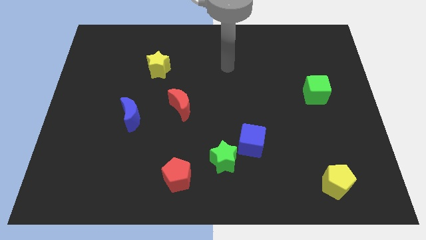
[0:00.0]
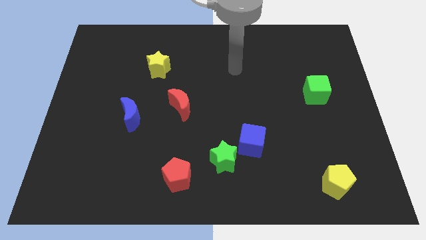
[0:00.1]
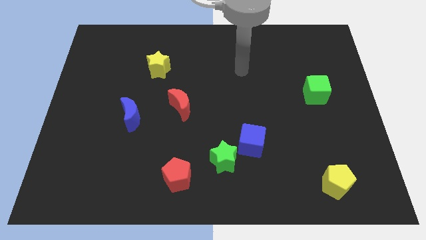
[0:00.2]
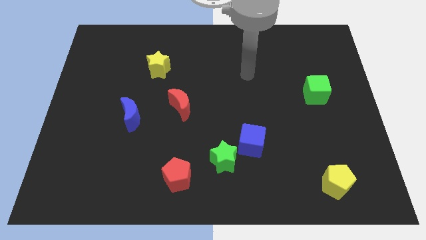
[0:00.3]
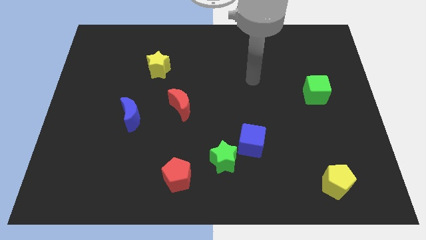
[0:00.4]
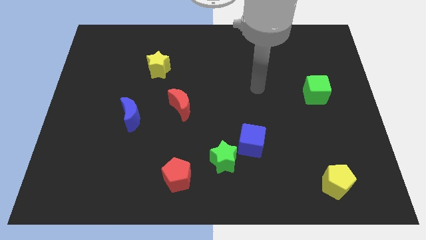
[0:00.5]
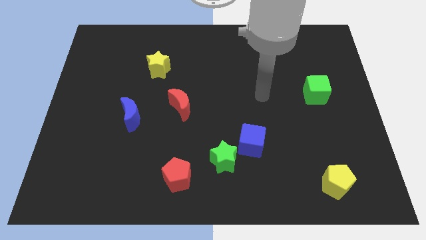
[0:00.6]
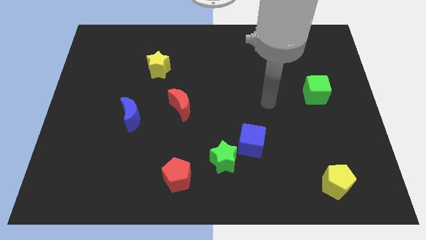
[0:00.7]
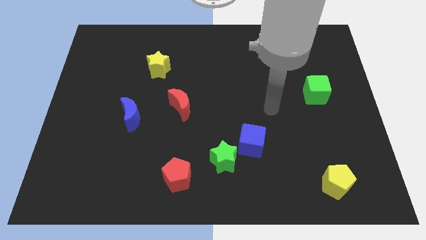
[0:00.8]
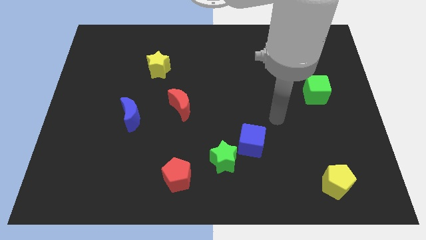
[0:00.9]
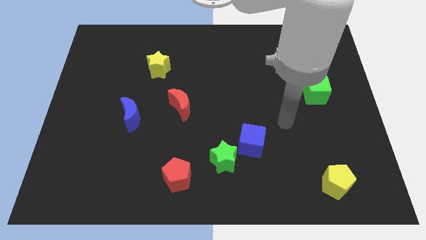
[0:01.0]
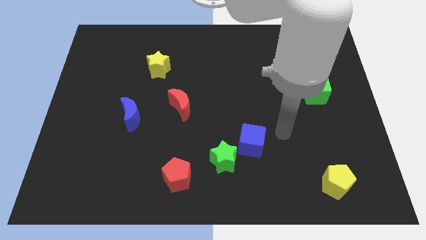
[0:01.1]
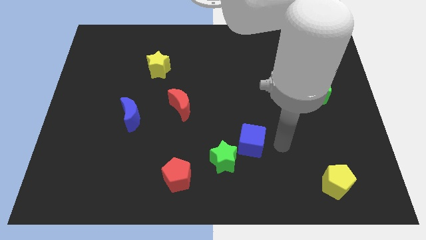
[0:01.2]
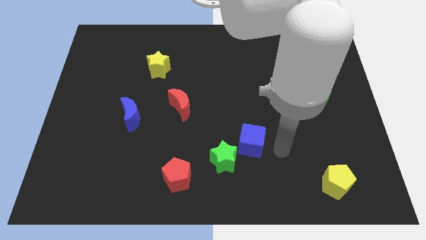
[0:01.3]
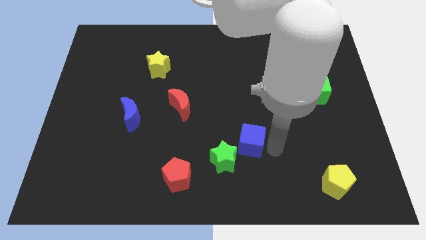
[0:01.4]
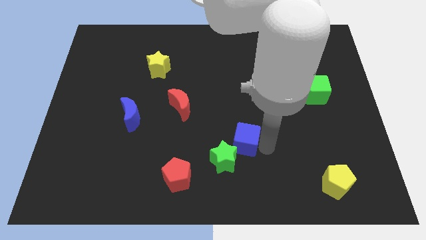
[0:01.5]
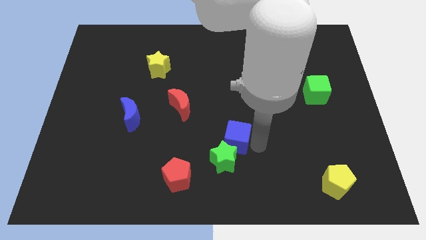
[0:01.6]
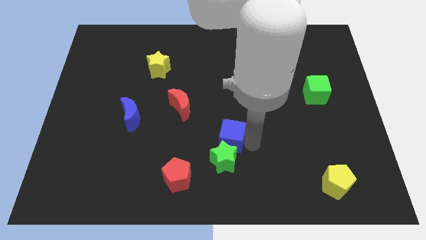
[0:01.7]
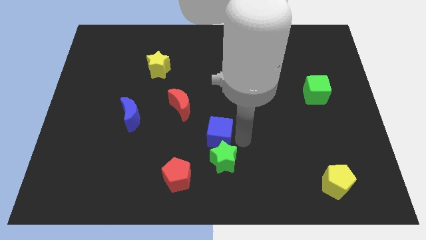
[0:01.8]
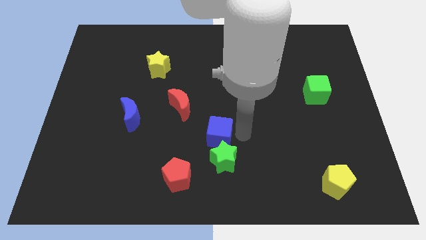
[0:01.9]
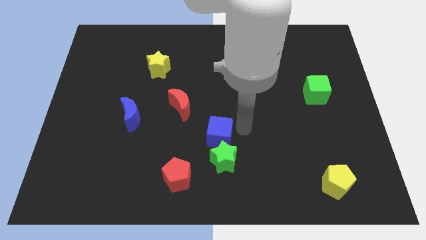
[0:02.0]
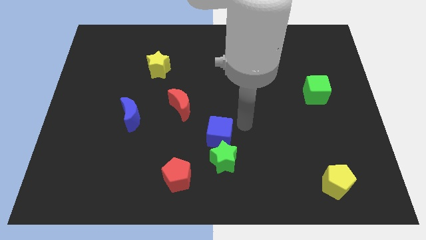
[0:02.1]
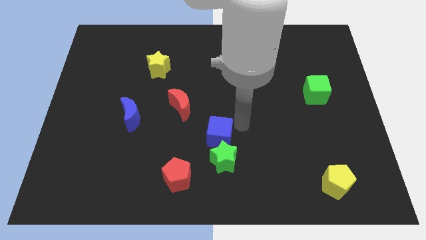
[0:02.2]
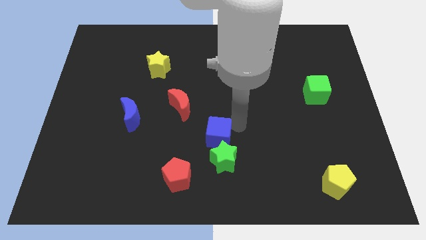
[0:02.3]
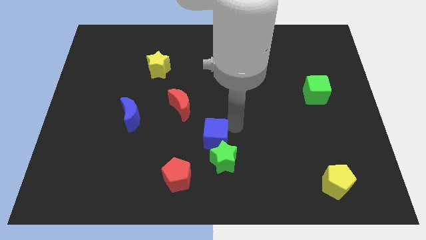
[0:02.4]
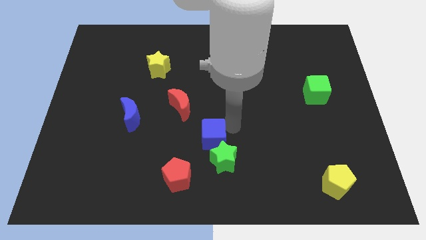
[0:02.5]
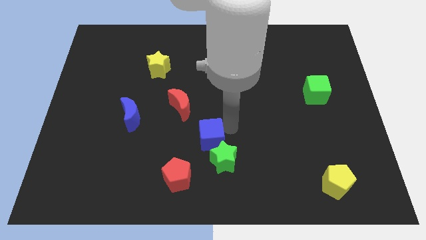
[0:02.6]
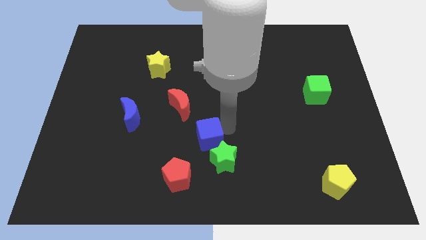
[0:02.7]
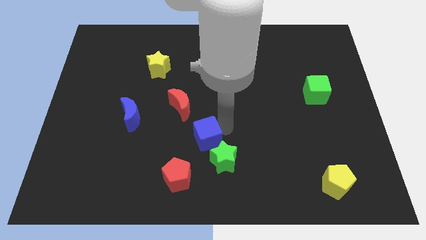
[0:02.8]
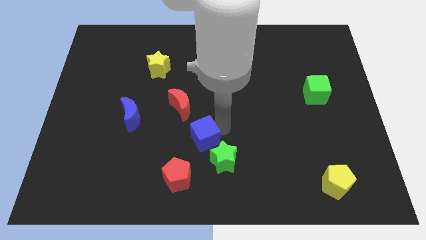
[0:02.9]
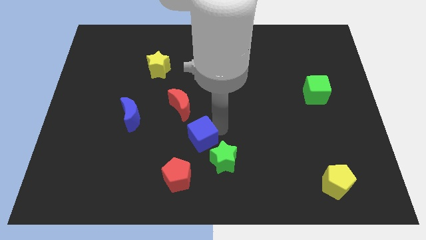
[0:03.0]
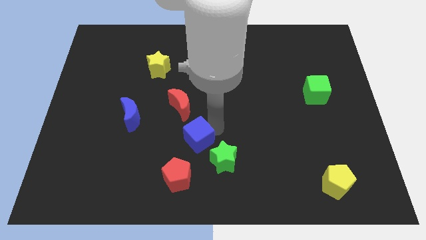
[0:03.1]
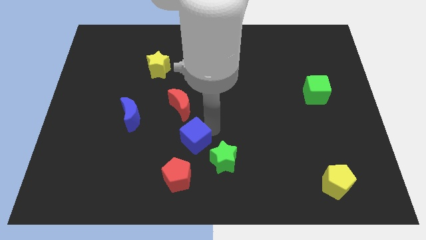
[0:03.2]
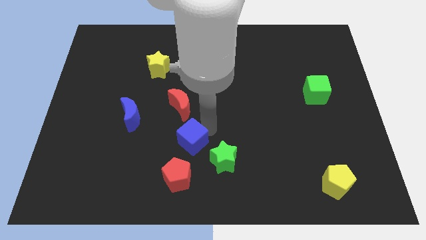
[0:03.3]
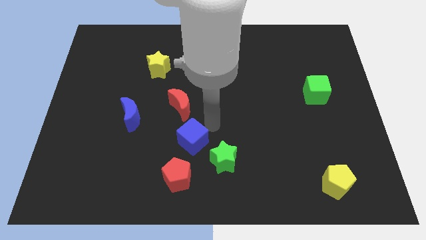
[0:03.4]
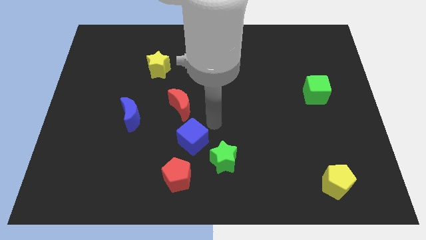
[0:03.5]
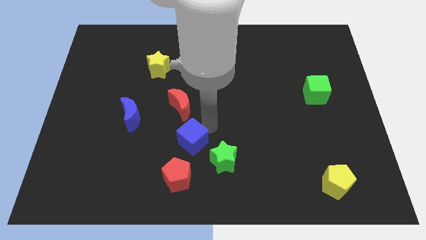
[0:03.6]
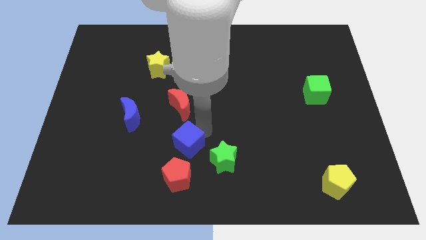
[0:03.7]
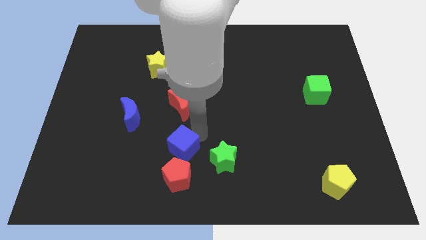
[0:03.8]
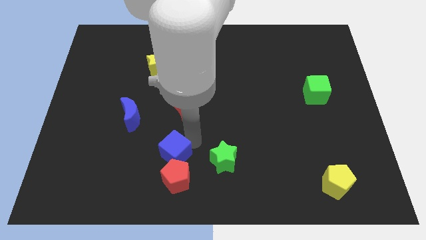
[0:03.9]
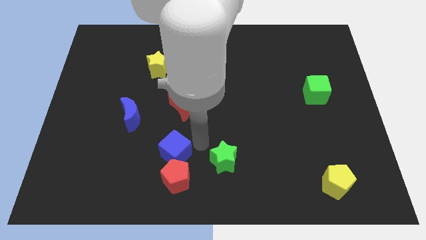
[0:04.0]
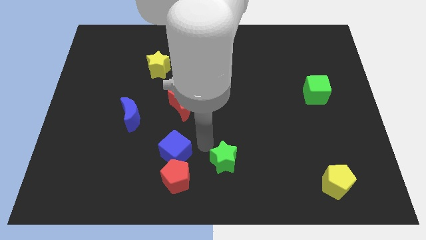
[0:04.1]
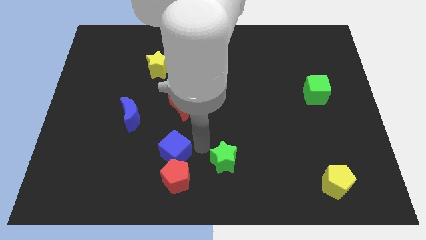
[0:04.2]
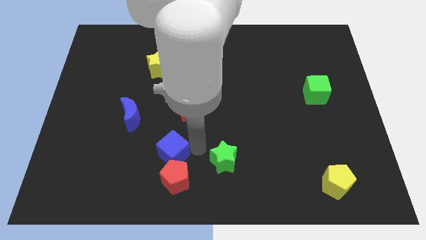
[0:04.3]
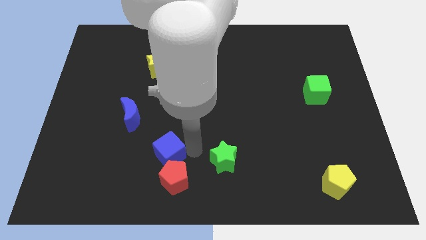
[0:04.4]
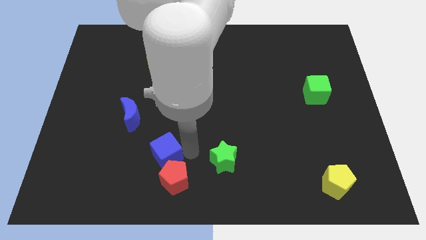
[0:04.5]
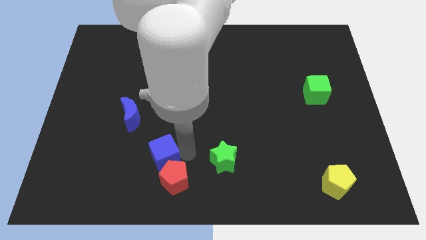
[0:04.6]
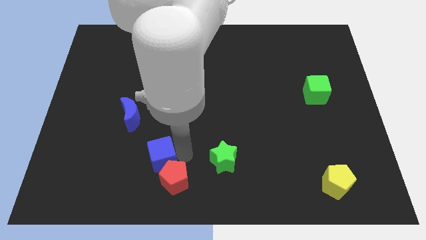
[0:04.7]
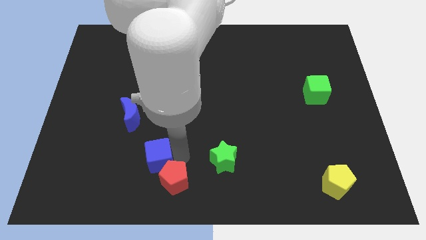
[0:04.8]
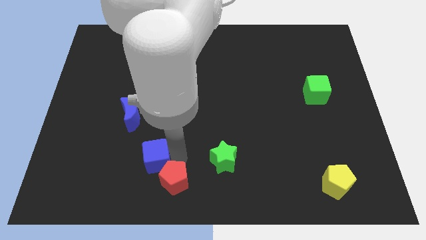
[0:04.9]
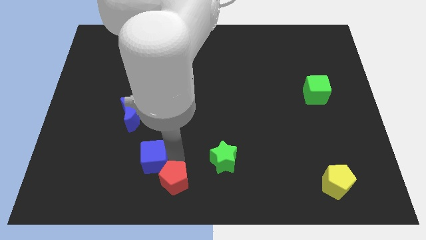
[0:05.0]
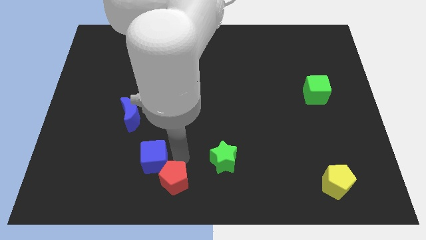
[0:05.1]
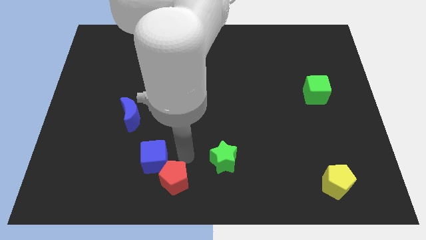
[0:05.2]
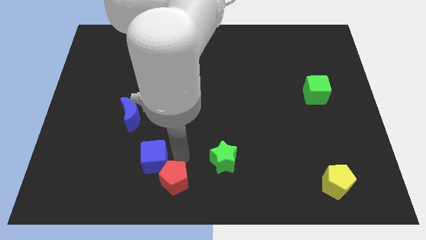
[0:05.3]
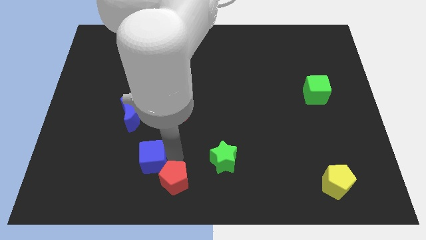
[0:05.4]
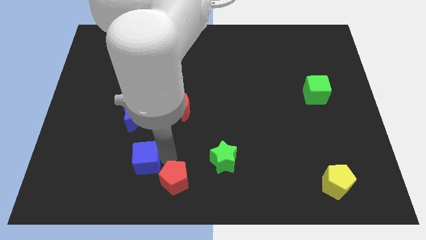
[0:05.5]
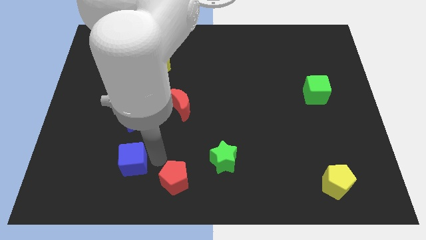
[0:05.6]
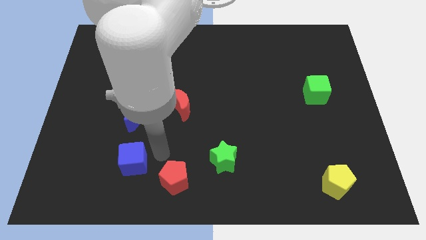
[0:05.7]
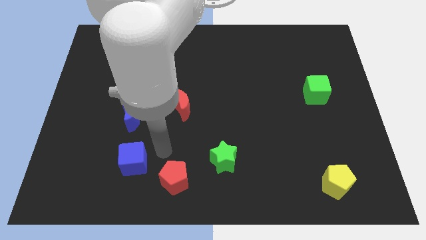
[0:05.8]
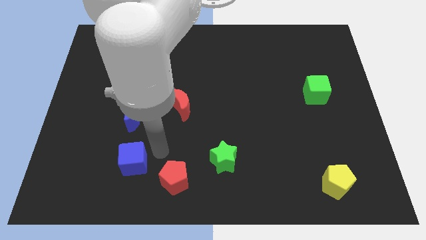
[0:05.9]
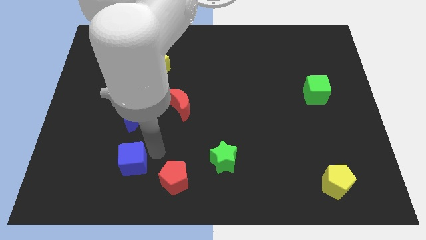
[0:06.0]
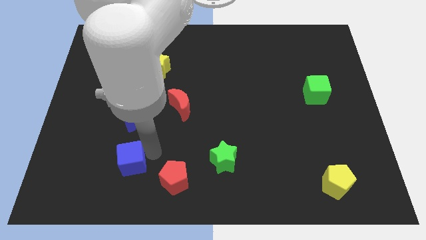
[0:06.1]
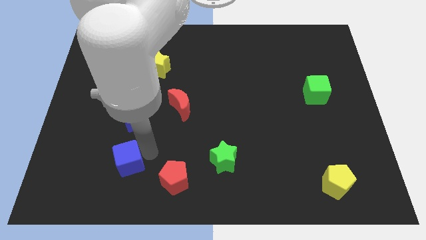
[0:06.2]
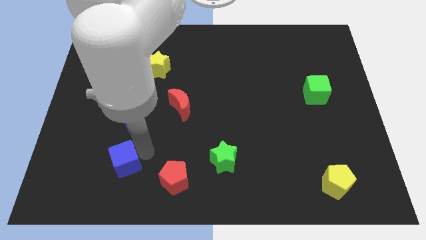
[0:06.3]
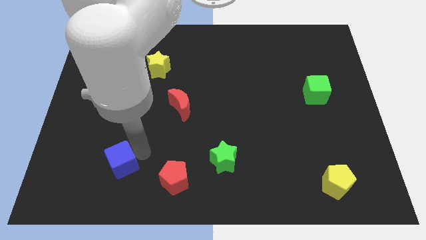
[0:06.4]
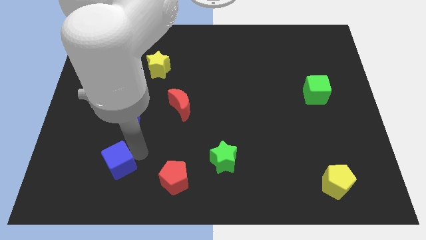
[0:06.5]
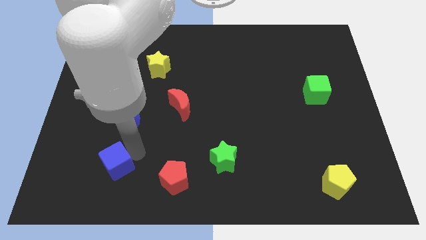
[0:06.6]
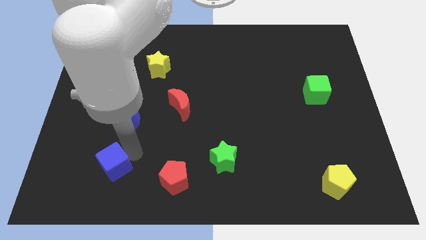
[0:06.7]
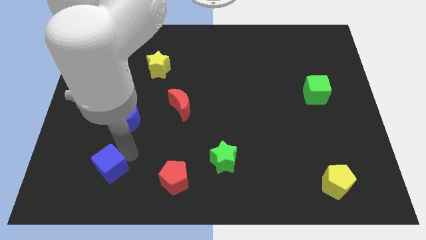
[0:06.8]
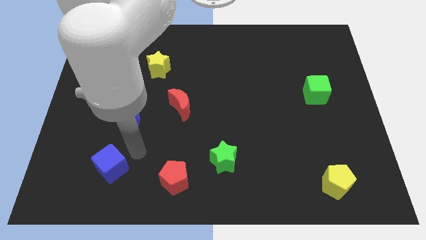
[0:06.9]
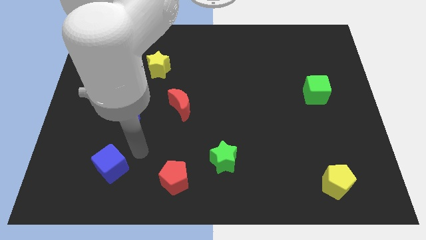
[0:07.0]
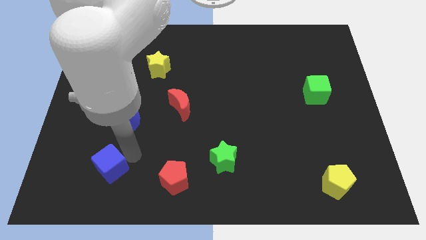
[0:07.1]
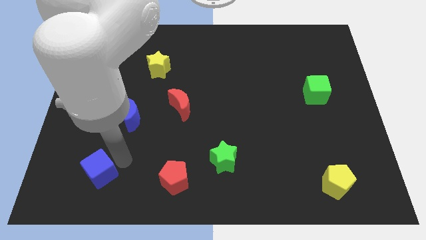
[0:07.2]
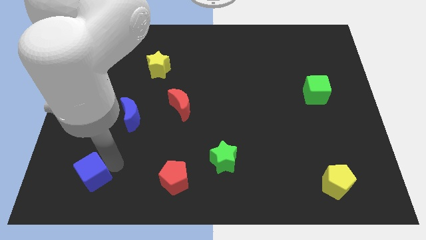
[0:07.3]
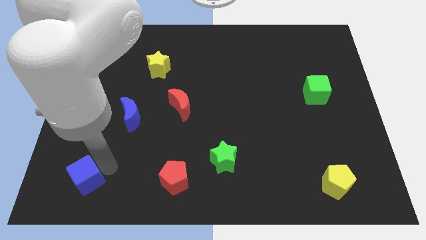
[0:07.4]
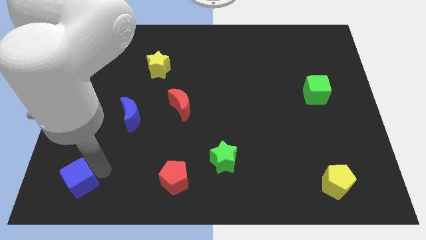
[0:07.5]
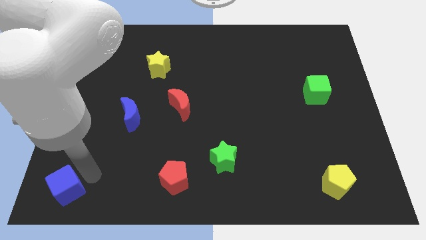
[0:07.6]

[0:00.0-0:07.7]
push the blue cube to the bottom left of the board
